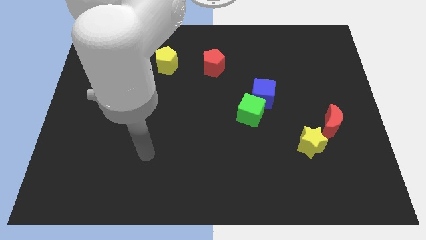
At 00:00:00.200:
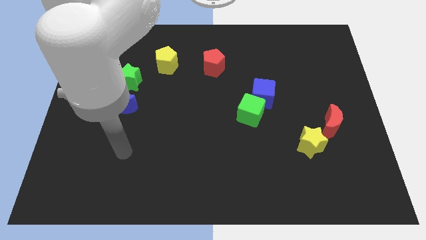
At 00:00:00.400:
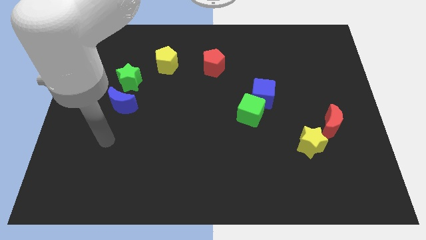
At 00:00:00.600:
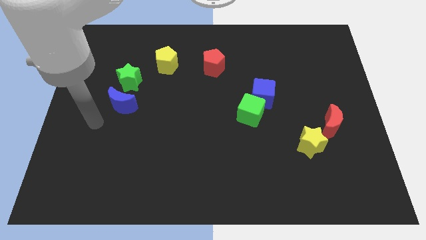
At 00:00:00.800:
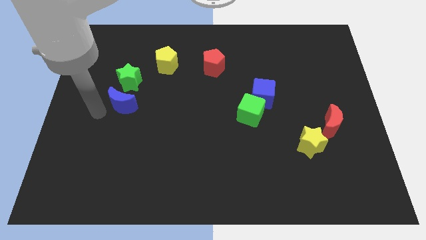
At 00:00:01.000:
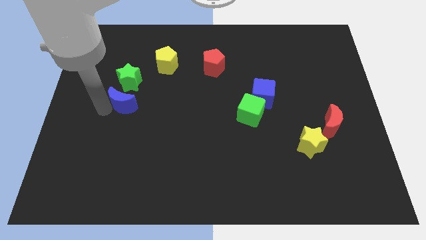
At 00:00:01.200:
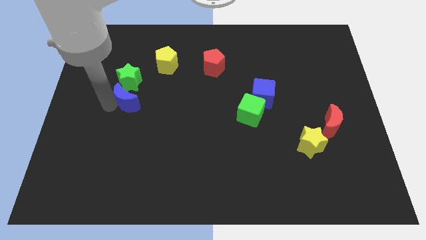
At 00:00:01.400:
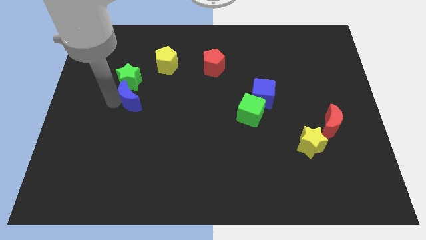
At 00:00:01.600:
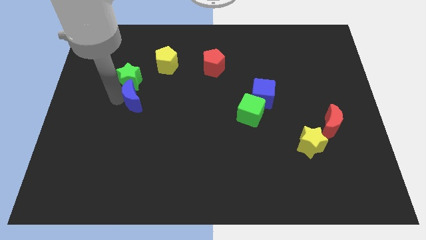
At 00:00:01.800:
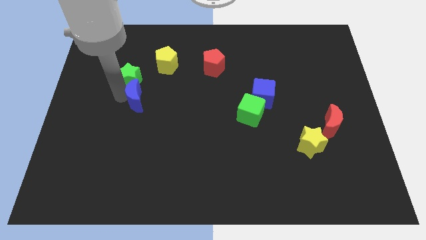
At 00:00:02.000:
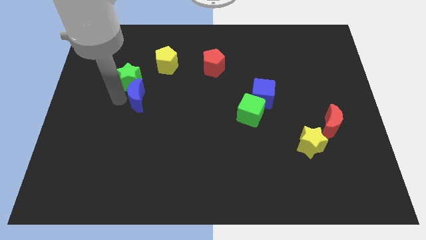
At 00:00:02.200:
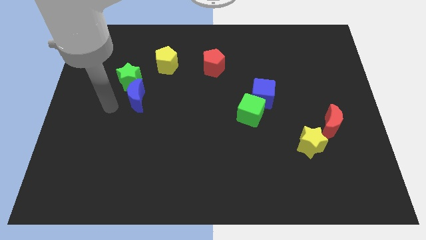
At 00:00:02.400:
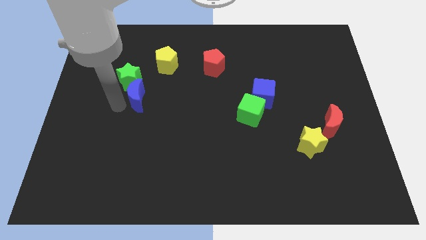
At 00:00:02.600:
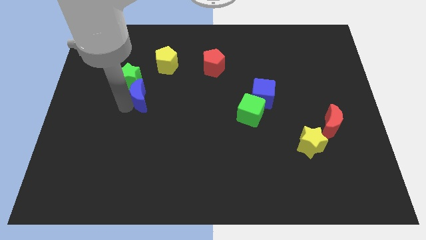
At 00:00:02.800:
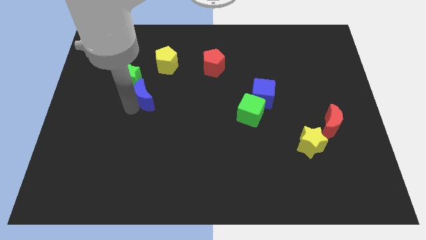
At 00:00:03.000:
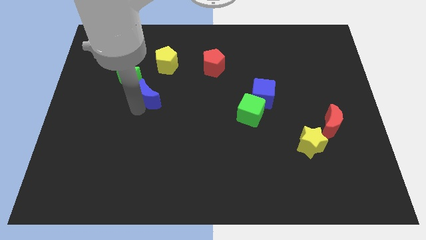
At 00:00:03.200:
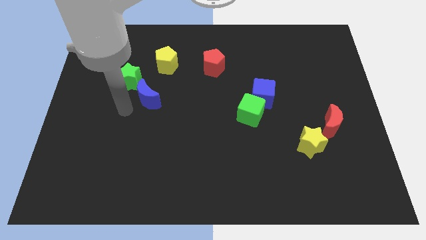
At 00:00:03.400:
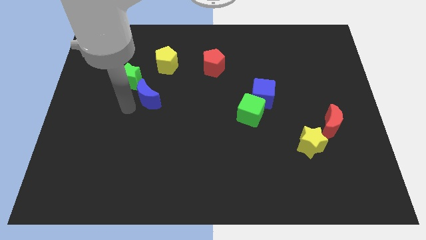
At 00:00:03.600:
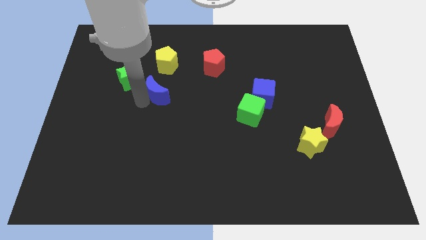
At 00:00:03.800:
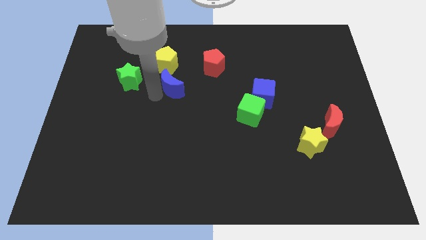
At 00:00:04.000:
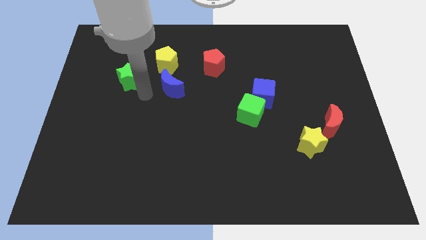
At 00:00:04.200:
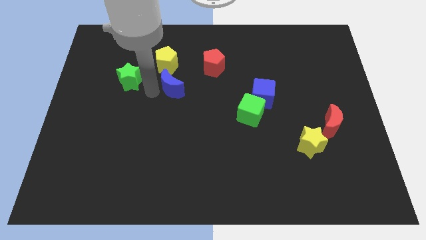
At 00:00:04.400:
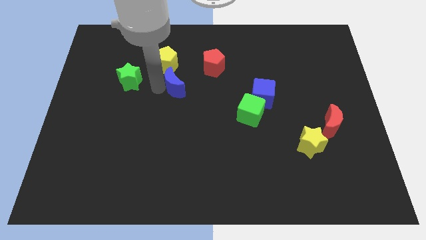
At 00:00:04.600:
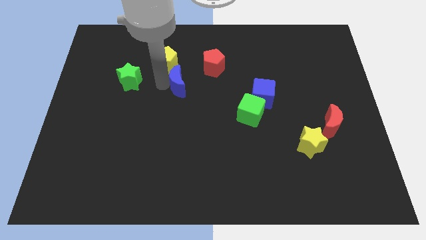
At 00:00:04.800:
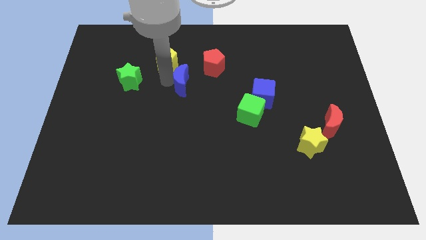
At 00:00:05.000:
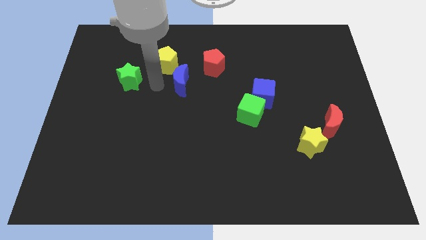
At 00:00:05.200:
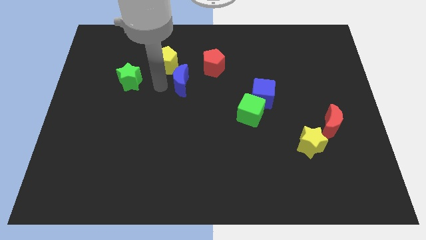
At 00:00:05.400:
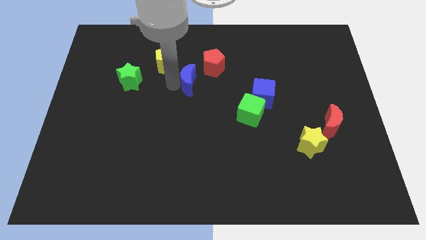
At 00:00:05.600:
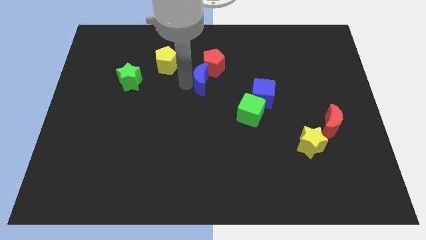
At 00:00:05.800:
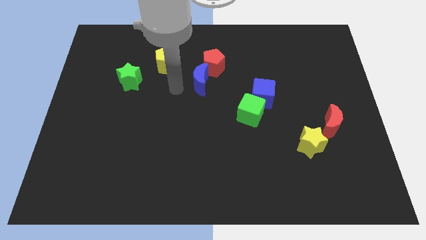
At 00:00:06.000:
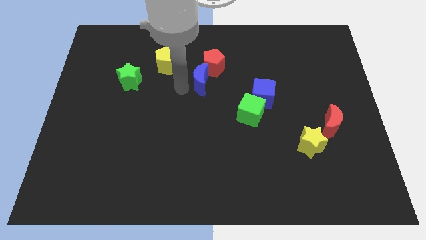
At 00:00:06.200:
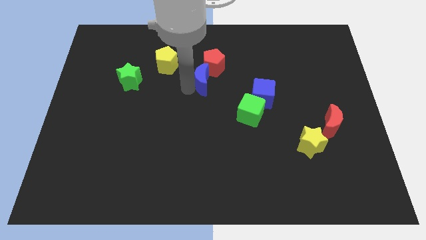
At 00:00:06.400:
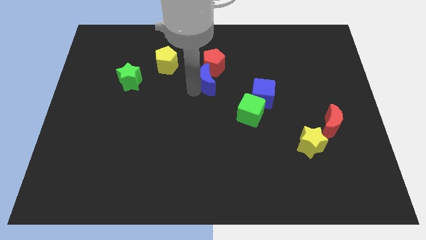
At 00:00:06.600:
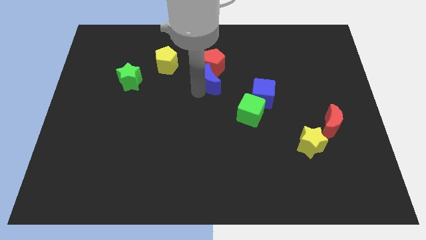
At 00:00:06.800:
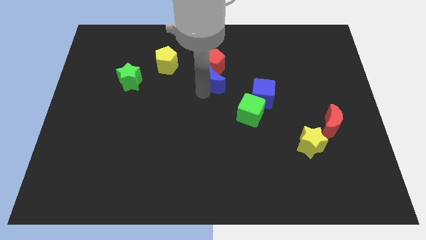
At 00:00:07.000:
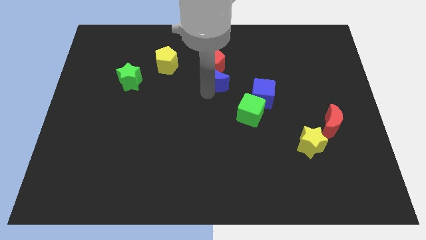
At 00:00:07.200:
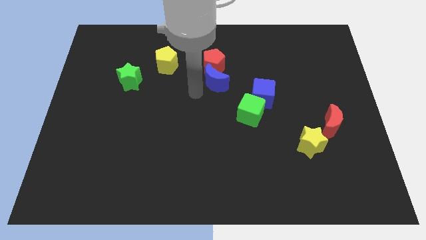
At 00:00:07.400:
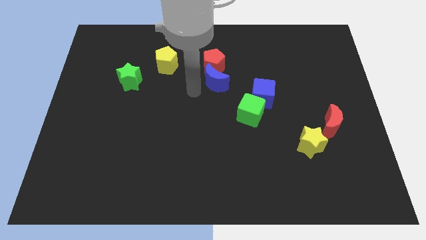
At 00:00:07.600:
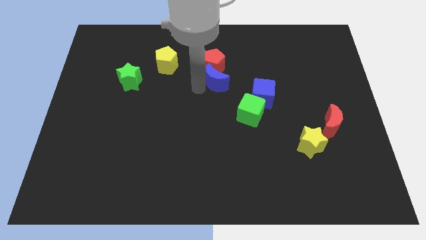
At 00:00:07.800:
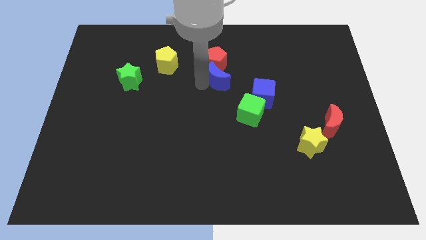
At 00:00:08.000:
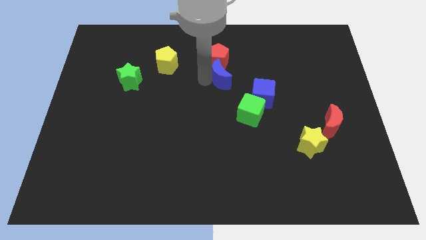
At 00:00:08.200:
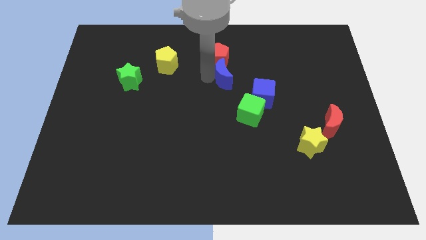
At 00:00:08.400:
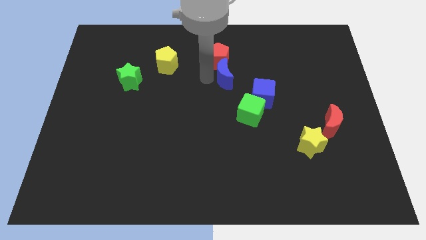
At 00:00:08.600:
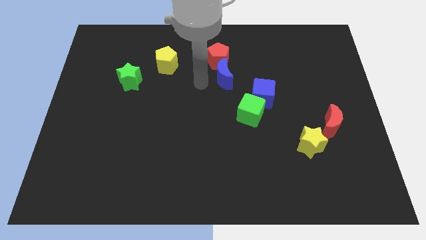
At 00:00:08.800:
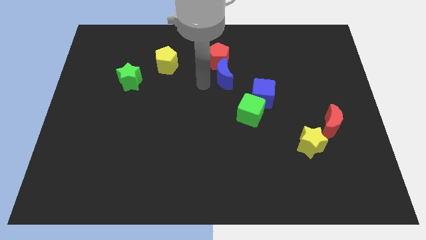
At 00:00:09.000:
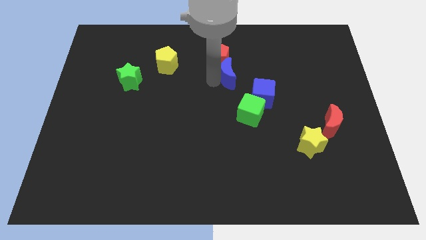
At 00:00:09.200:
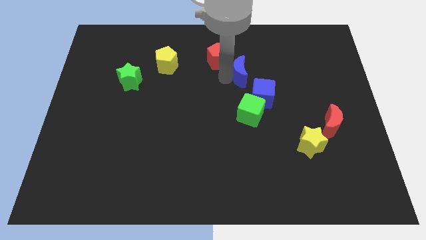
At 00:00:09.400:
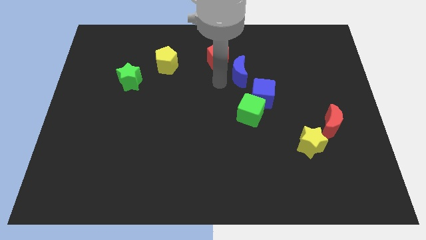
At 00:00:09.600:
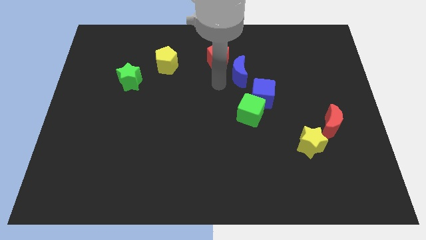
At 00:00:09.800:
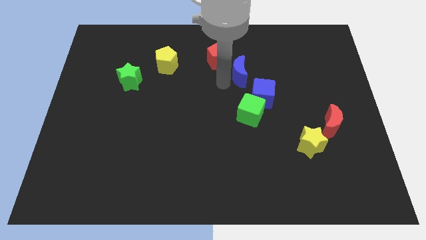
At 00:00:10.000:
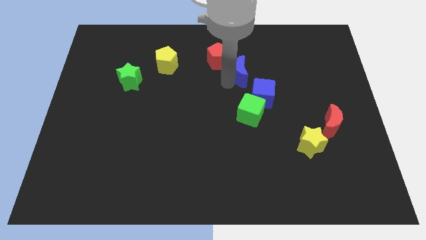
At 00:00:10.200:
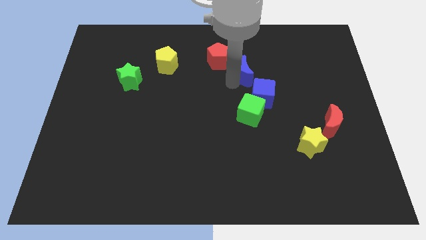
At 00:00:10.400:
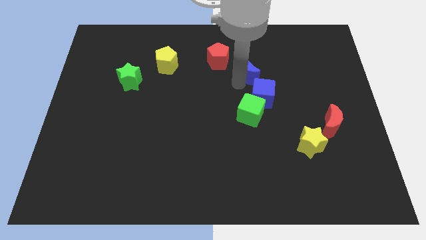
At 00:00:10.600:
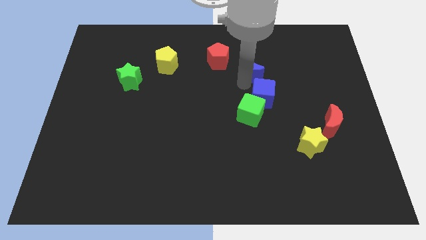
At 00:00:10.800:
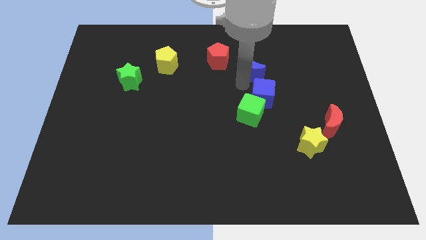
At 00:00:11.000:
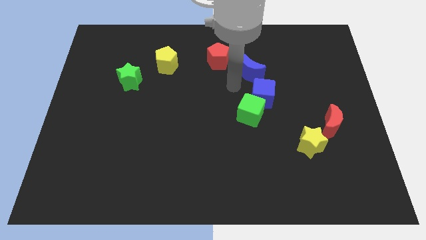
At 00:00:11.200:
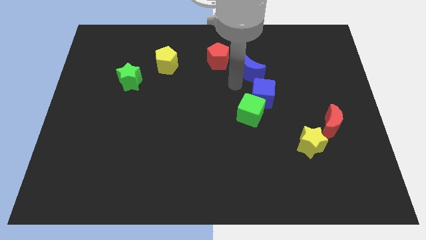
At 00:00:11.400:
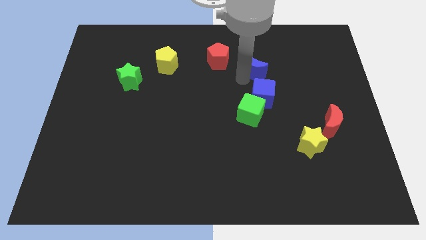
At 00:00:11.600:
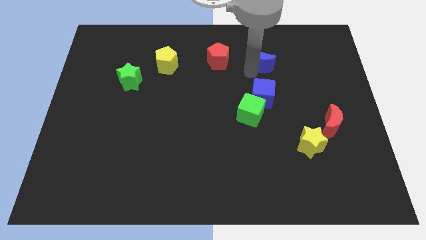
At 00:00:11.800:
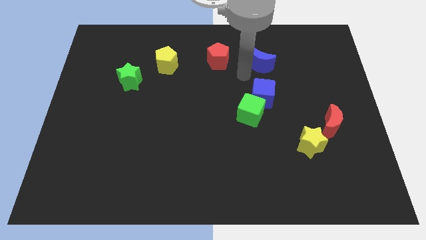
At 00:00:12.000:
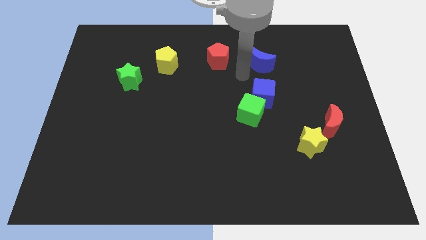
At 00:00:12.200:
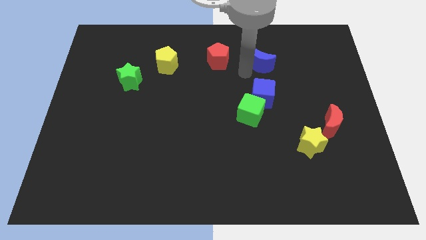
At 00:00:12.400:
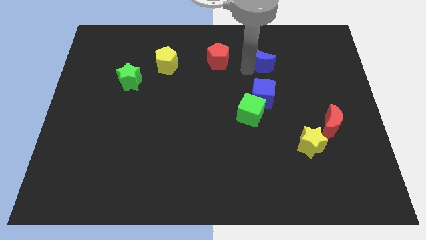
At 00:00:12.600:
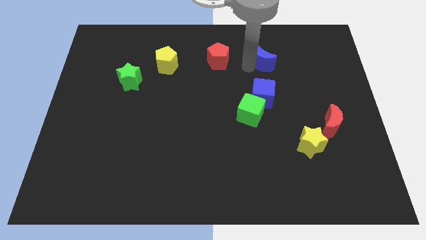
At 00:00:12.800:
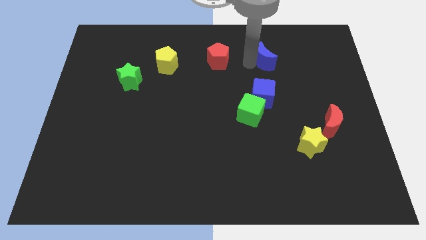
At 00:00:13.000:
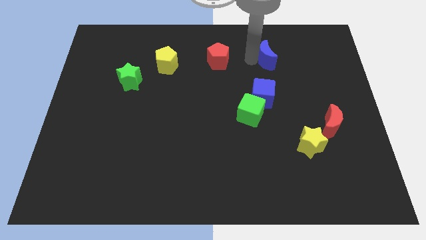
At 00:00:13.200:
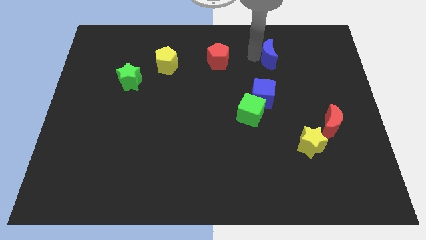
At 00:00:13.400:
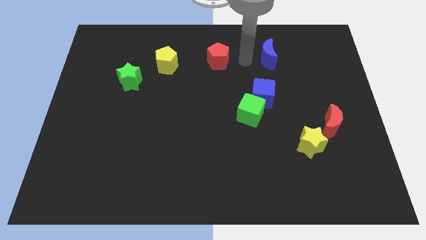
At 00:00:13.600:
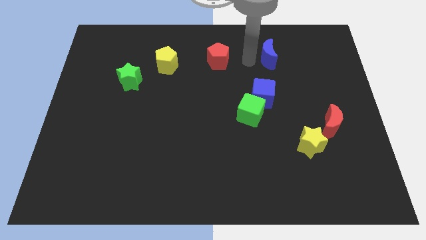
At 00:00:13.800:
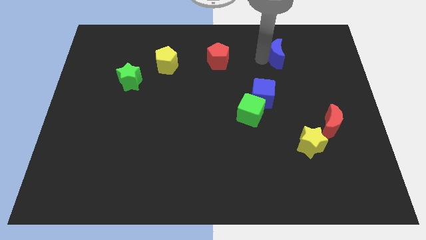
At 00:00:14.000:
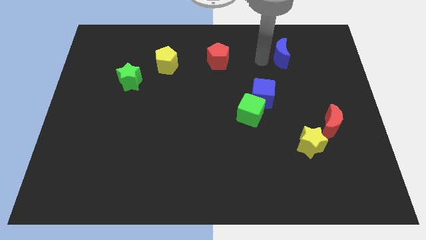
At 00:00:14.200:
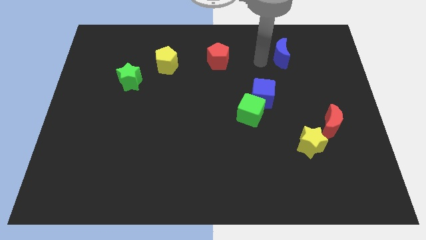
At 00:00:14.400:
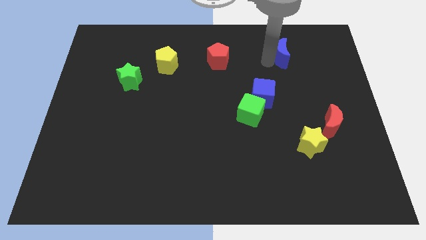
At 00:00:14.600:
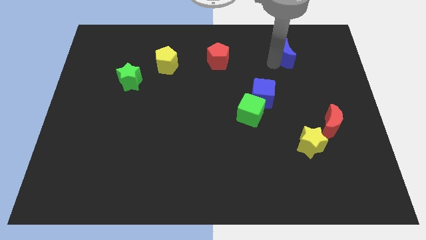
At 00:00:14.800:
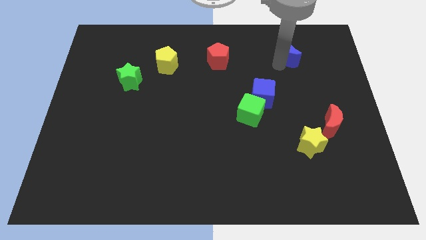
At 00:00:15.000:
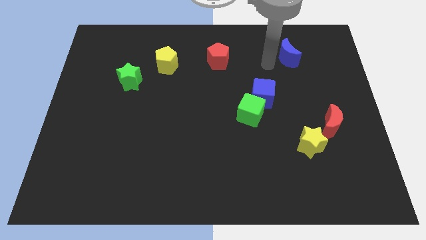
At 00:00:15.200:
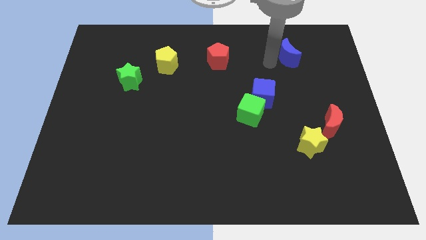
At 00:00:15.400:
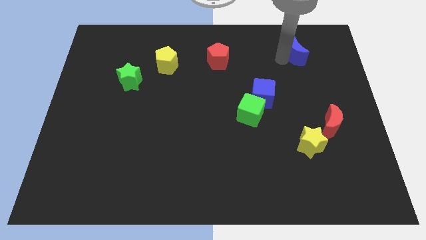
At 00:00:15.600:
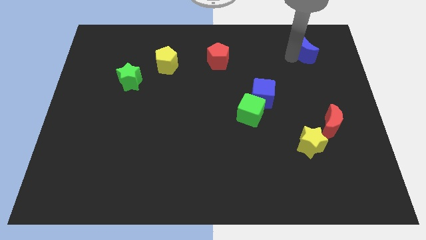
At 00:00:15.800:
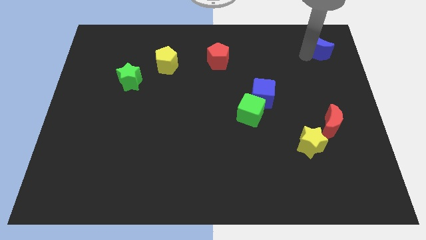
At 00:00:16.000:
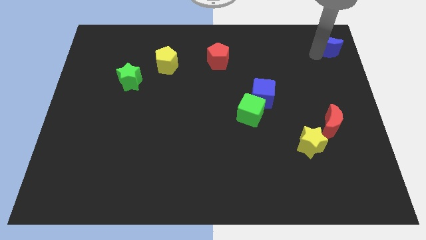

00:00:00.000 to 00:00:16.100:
push the blue moon to the top right
